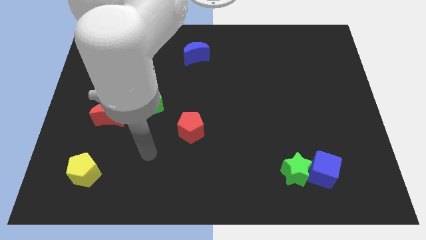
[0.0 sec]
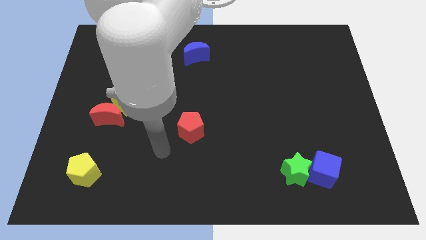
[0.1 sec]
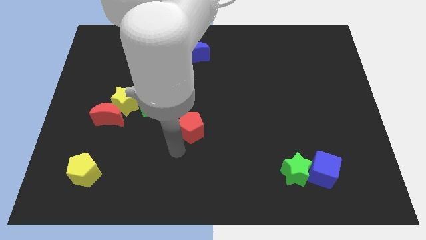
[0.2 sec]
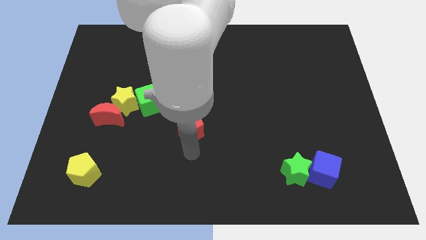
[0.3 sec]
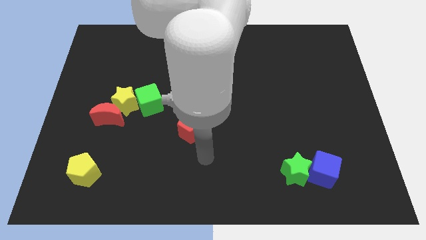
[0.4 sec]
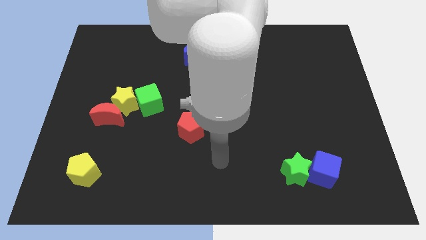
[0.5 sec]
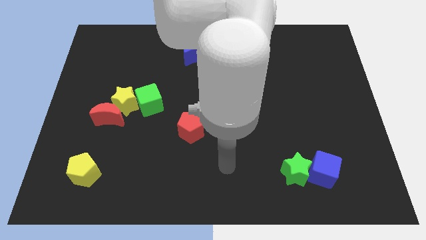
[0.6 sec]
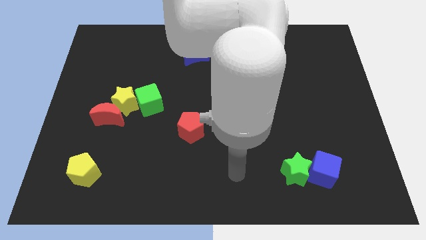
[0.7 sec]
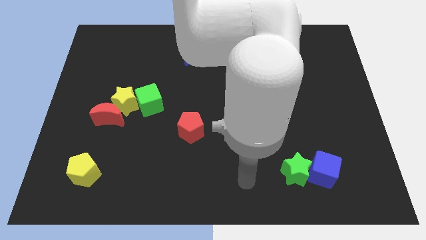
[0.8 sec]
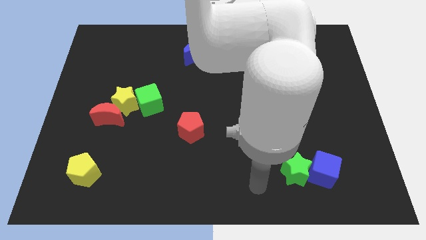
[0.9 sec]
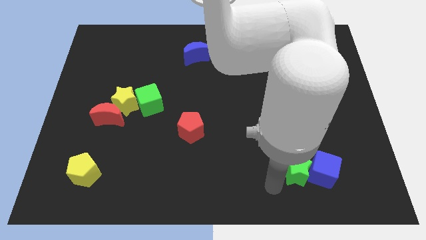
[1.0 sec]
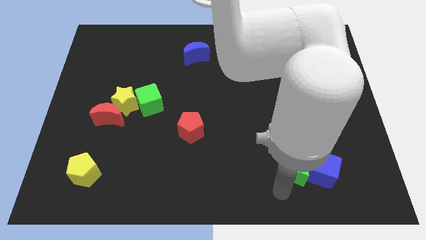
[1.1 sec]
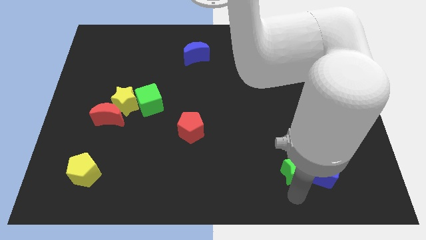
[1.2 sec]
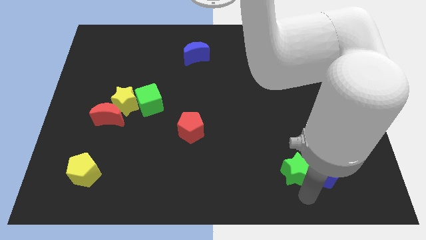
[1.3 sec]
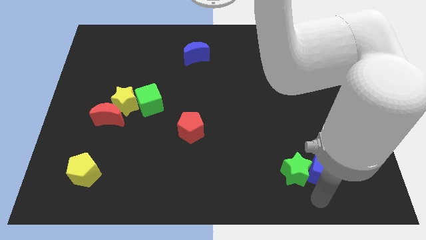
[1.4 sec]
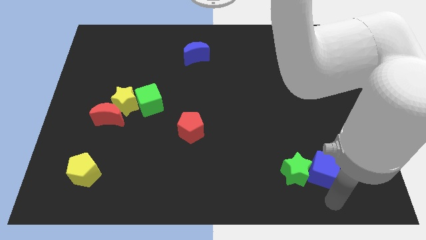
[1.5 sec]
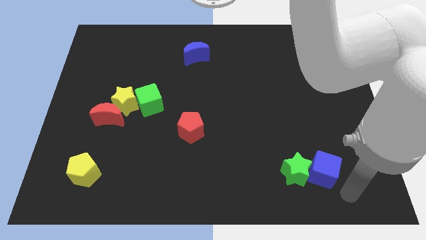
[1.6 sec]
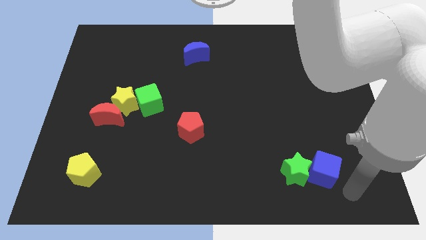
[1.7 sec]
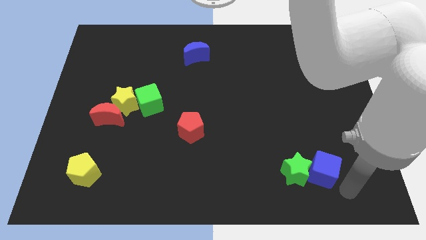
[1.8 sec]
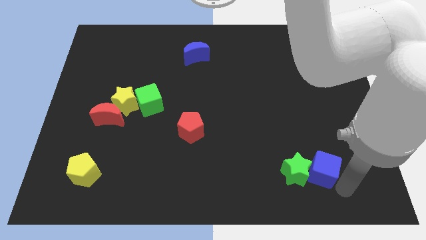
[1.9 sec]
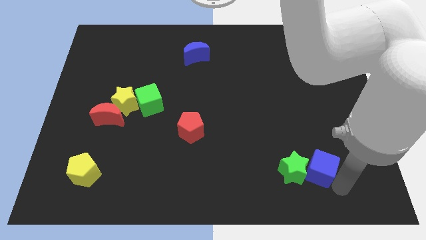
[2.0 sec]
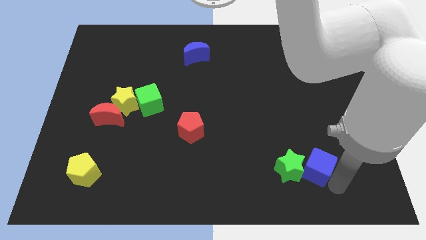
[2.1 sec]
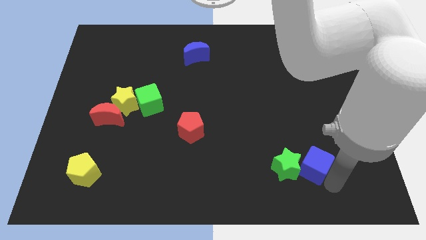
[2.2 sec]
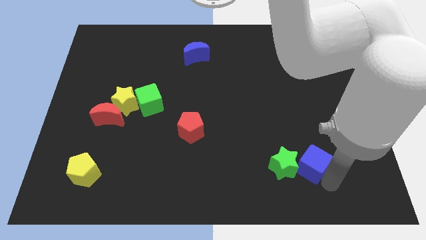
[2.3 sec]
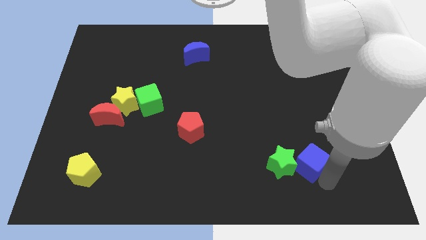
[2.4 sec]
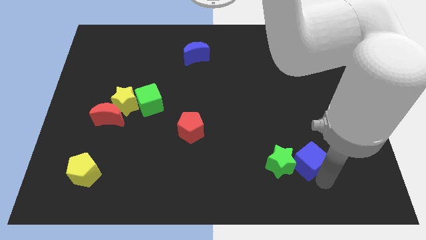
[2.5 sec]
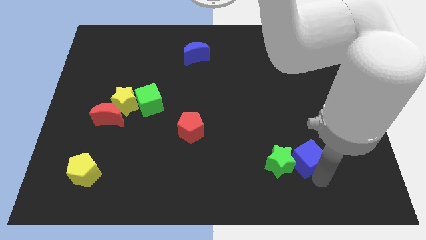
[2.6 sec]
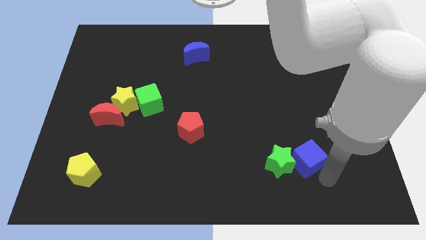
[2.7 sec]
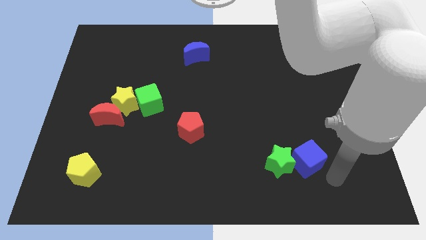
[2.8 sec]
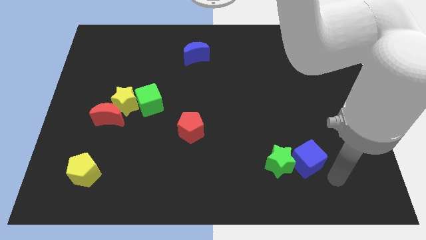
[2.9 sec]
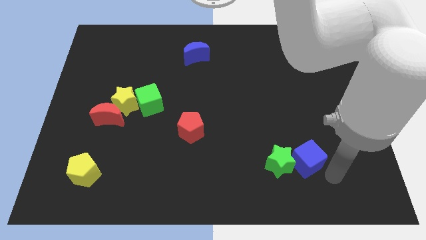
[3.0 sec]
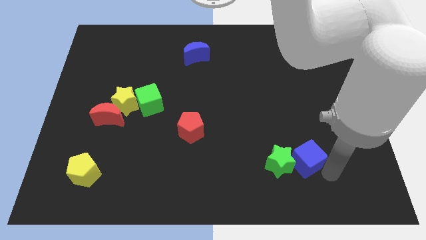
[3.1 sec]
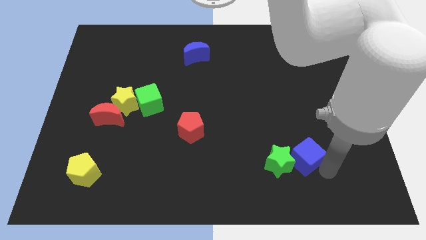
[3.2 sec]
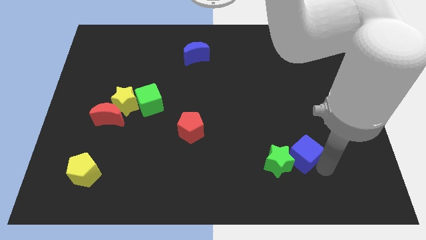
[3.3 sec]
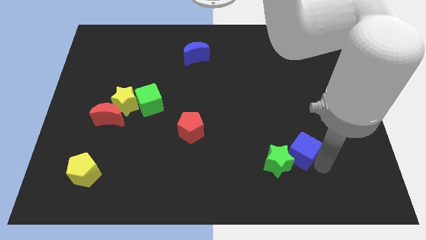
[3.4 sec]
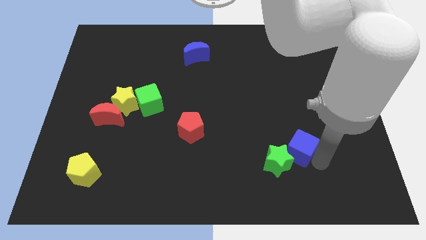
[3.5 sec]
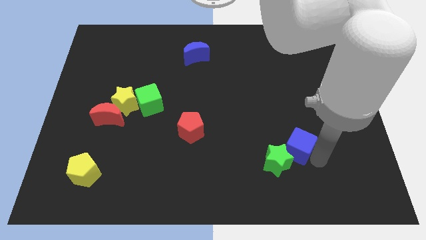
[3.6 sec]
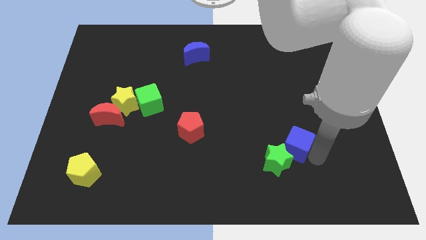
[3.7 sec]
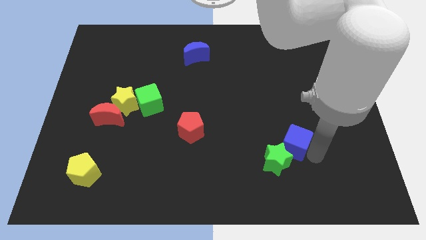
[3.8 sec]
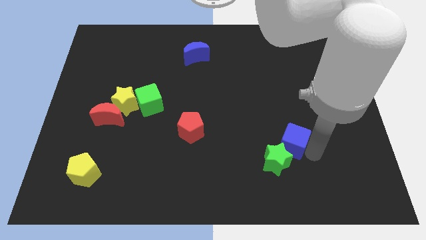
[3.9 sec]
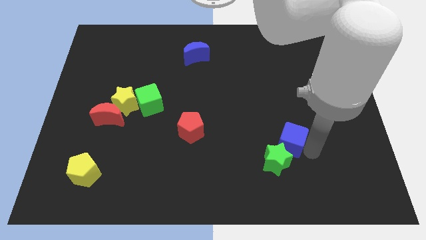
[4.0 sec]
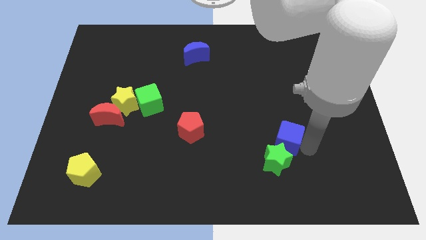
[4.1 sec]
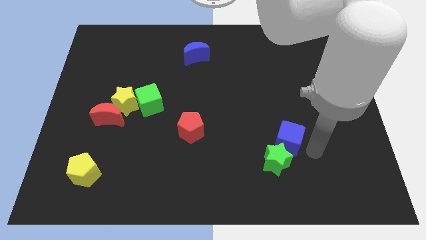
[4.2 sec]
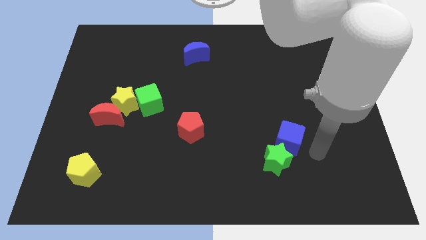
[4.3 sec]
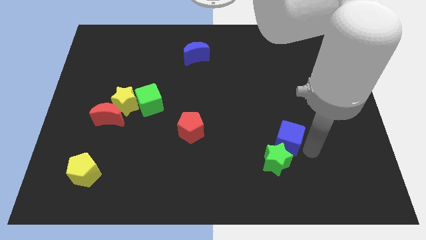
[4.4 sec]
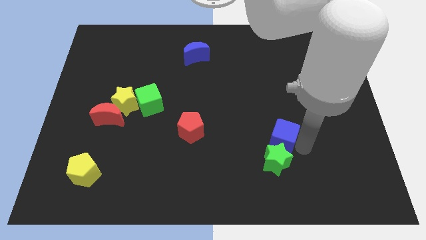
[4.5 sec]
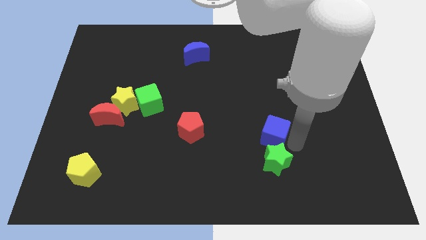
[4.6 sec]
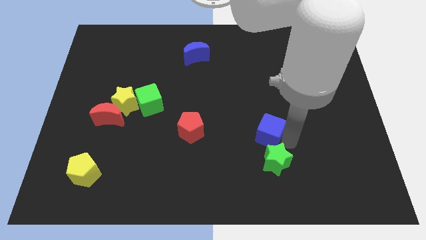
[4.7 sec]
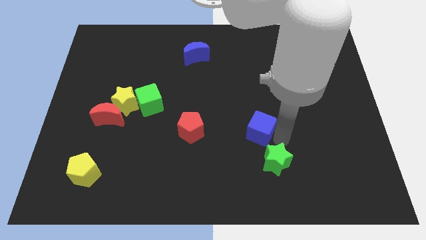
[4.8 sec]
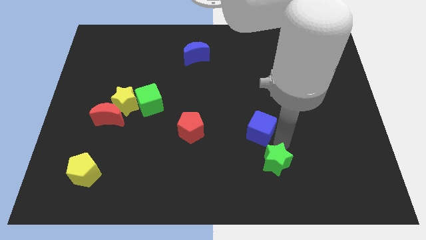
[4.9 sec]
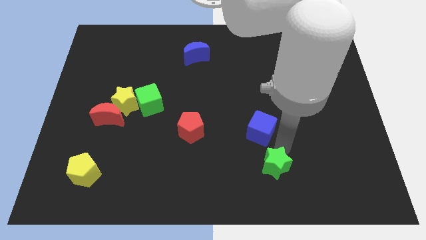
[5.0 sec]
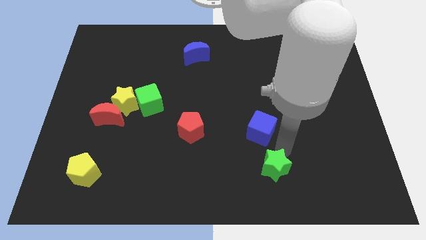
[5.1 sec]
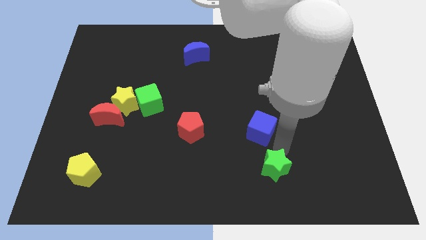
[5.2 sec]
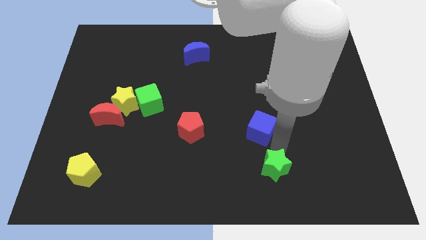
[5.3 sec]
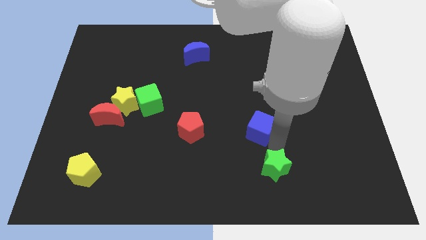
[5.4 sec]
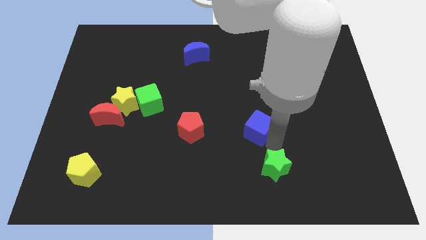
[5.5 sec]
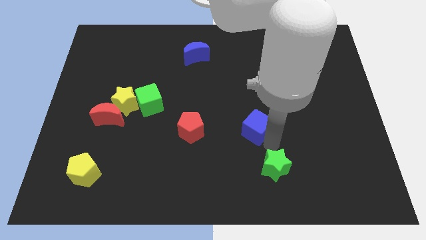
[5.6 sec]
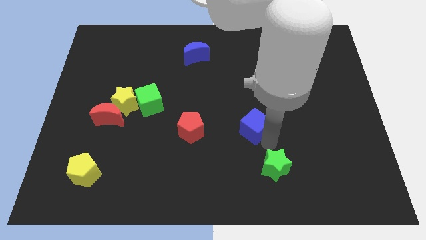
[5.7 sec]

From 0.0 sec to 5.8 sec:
push the blue cube to the center
